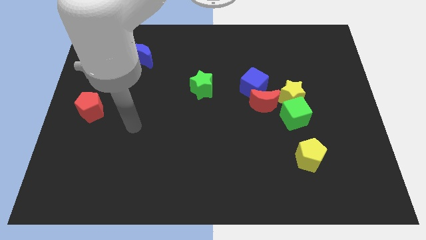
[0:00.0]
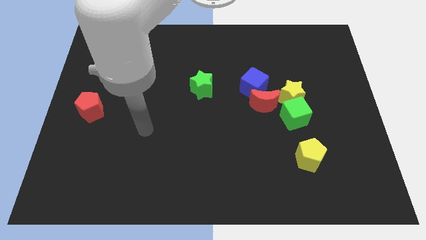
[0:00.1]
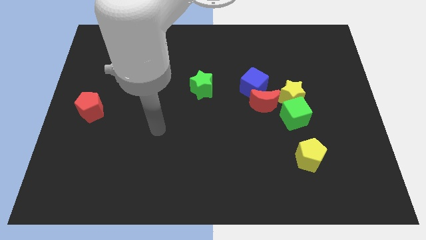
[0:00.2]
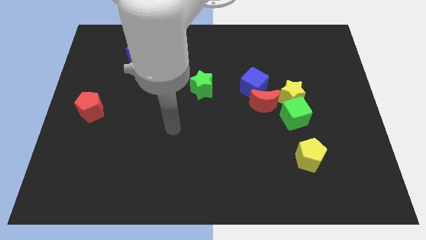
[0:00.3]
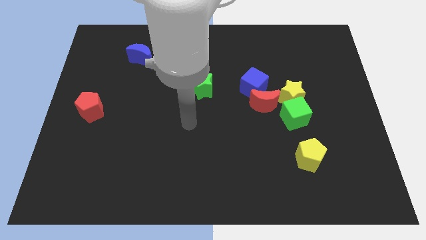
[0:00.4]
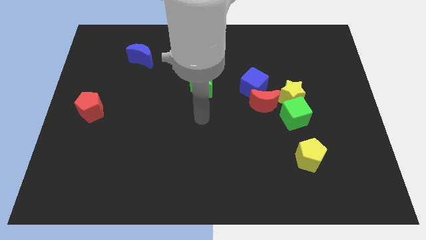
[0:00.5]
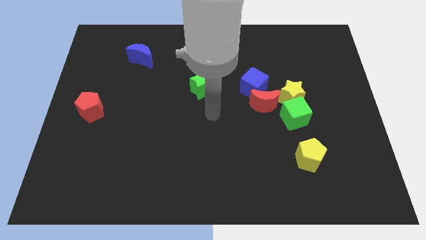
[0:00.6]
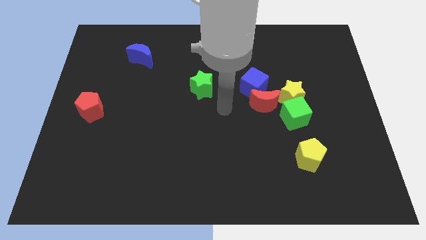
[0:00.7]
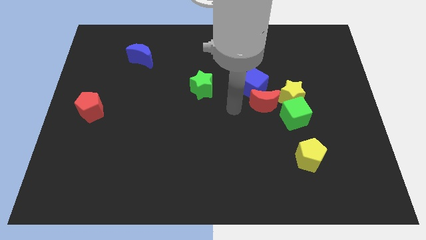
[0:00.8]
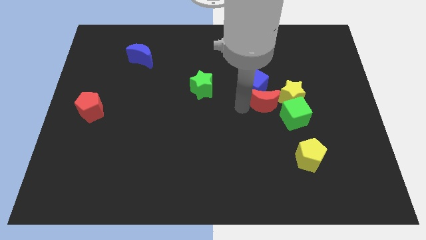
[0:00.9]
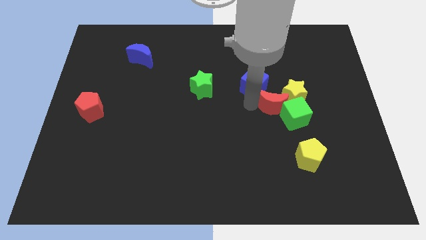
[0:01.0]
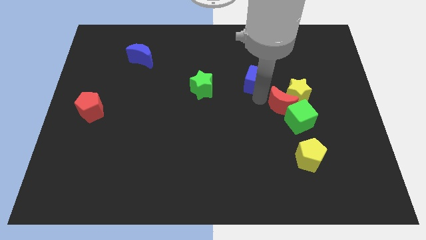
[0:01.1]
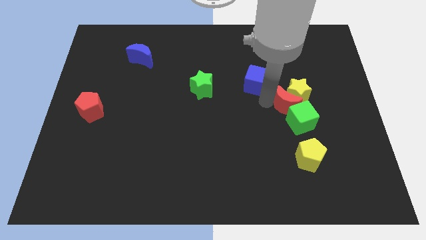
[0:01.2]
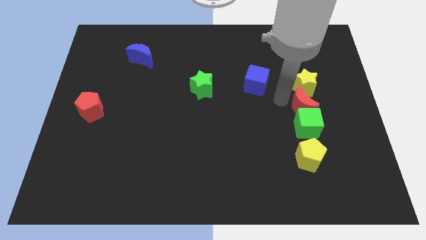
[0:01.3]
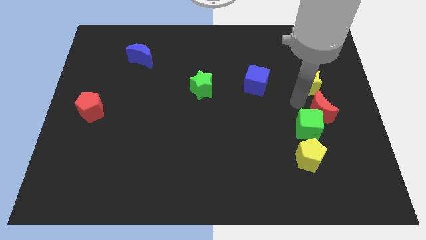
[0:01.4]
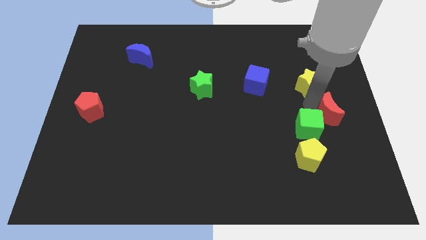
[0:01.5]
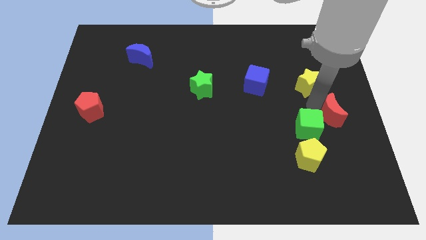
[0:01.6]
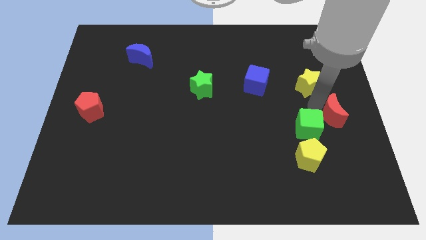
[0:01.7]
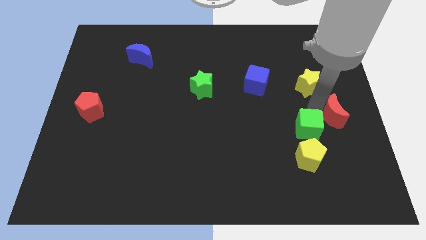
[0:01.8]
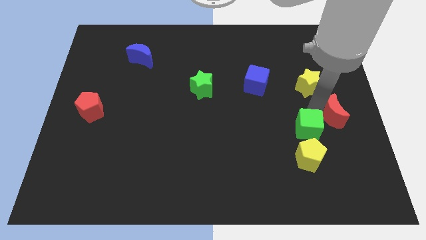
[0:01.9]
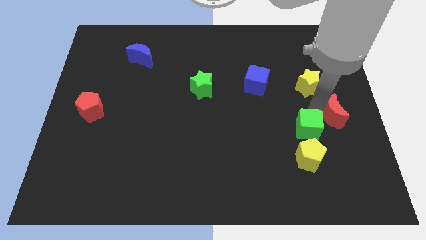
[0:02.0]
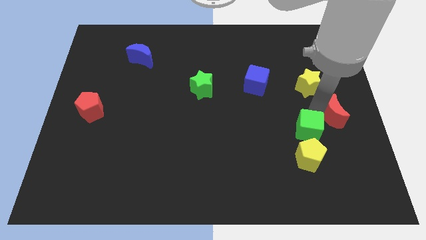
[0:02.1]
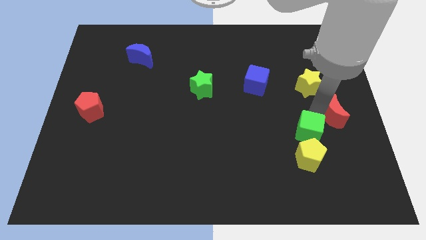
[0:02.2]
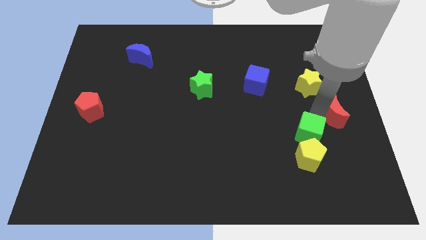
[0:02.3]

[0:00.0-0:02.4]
separate the green cube from the yellow star and red moon

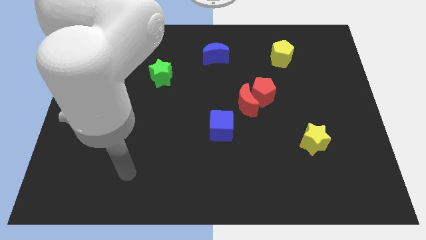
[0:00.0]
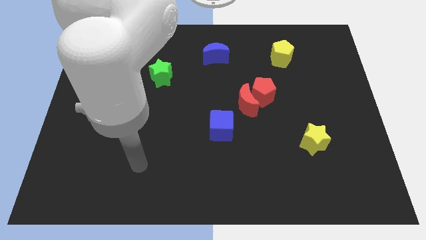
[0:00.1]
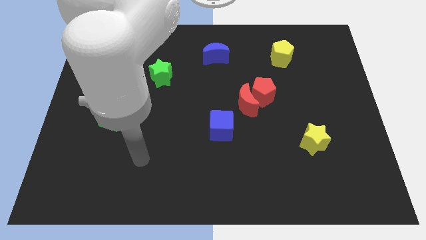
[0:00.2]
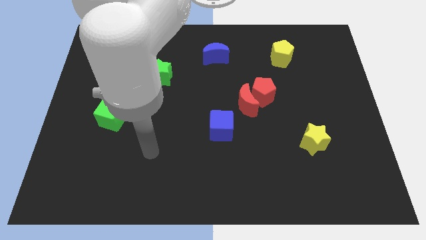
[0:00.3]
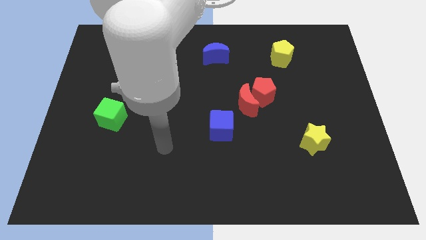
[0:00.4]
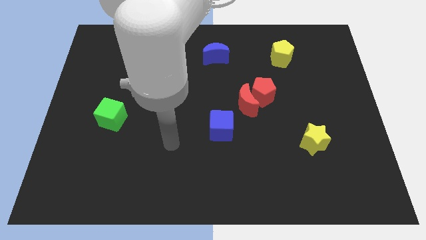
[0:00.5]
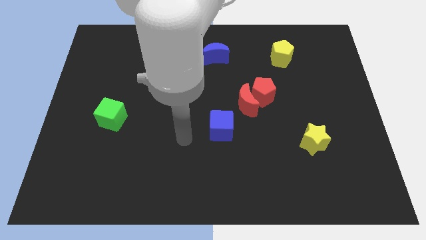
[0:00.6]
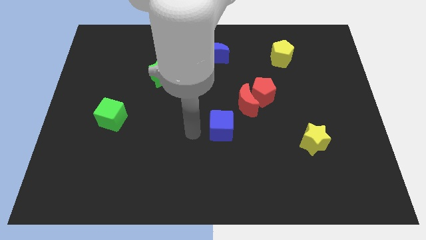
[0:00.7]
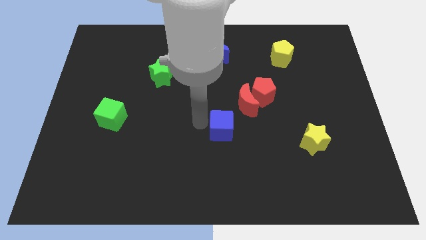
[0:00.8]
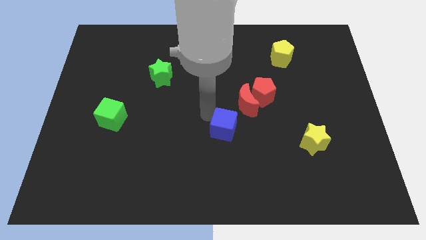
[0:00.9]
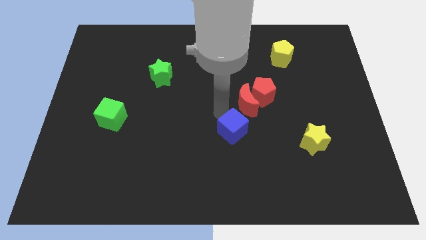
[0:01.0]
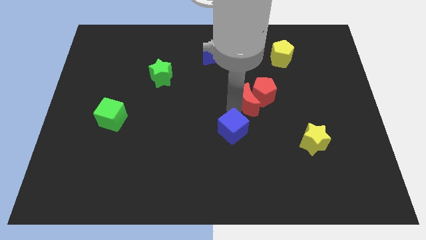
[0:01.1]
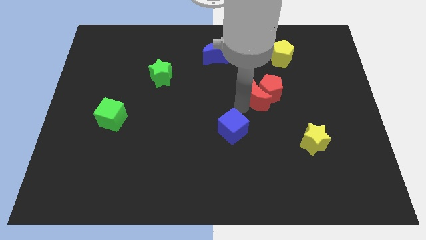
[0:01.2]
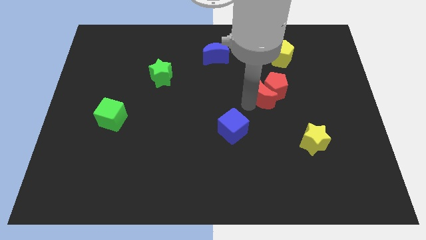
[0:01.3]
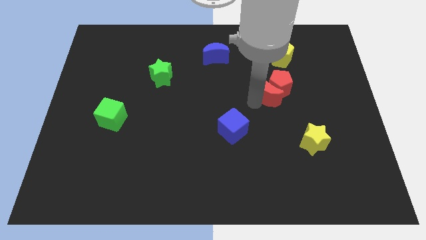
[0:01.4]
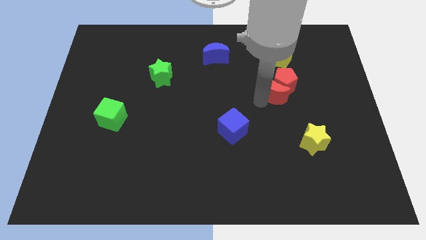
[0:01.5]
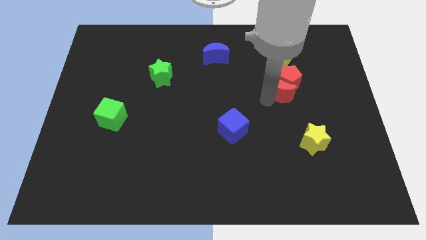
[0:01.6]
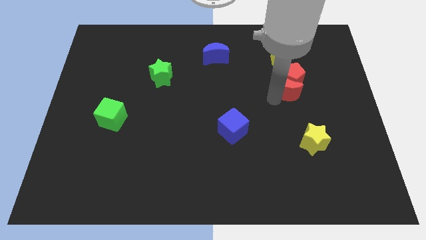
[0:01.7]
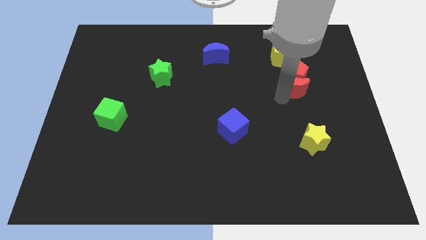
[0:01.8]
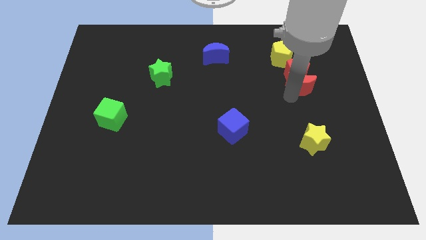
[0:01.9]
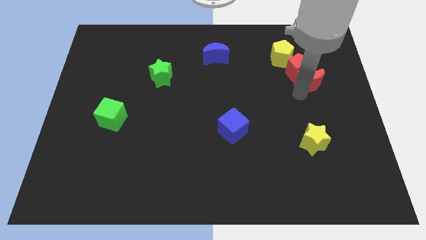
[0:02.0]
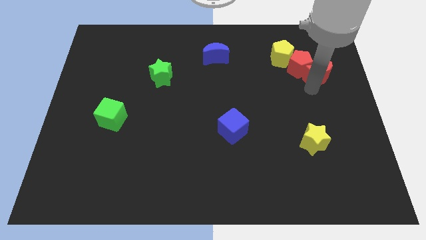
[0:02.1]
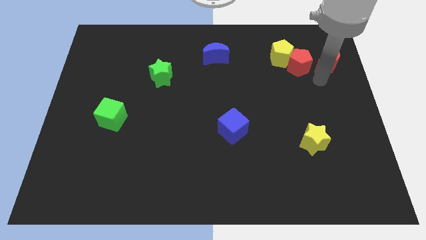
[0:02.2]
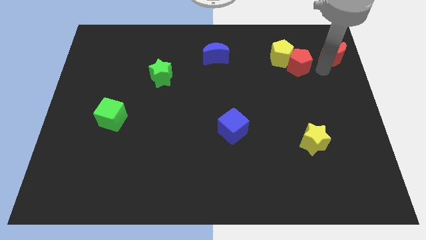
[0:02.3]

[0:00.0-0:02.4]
separate the red pentagon from the red moon

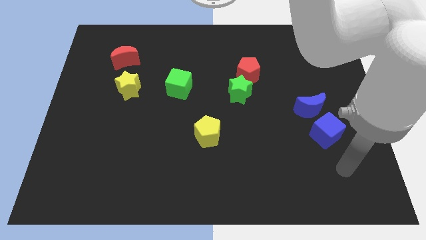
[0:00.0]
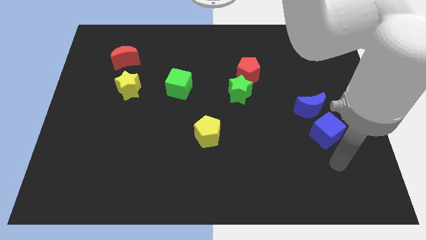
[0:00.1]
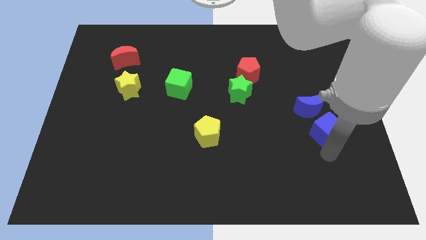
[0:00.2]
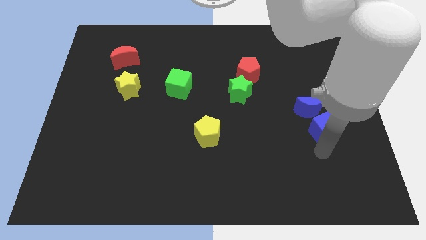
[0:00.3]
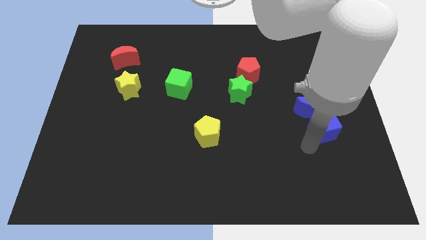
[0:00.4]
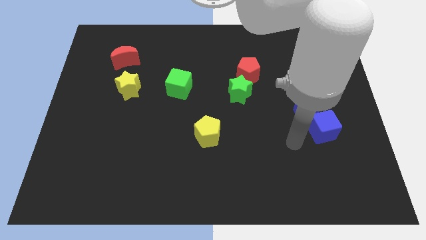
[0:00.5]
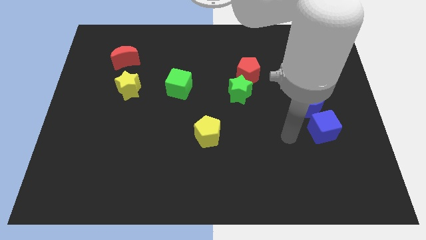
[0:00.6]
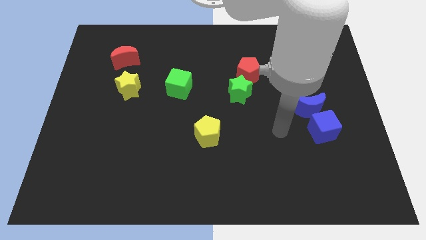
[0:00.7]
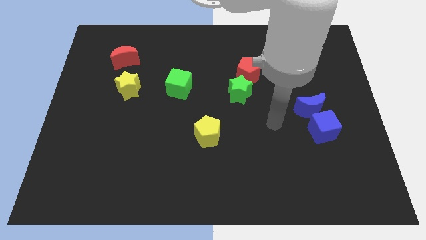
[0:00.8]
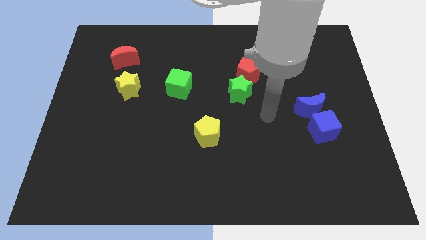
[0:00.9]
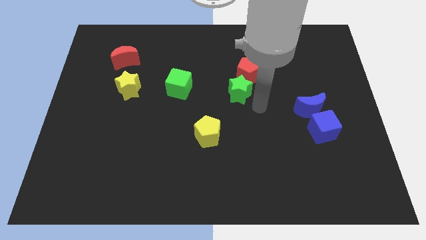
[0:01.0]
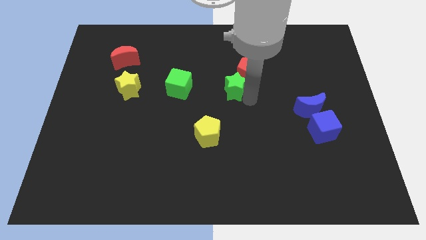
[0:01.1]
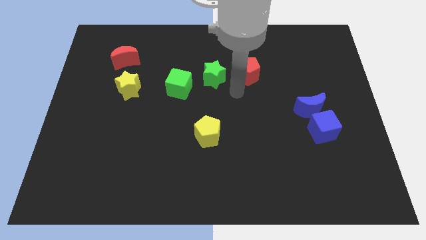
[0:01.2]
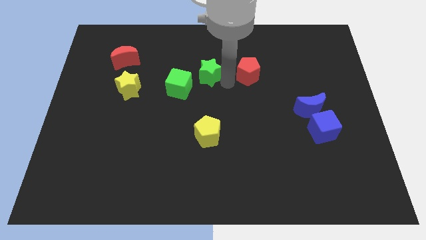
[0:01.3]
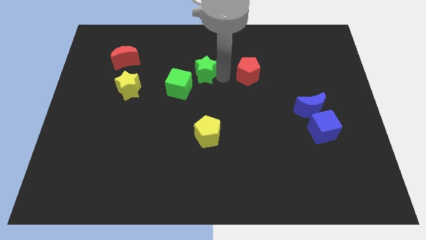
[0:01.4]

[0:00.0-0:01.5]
move the red pentagon away from the green star

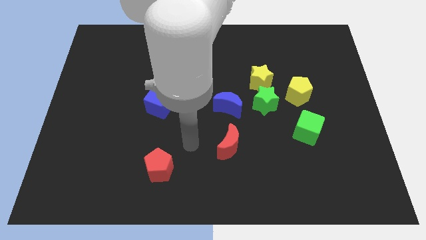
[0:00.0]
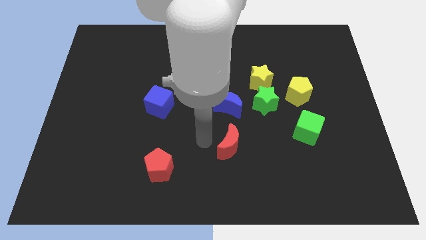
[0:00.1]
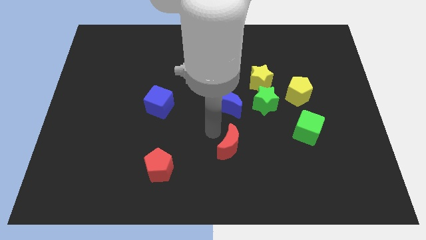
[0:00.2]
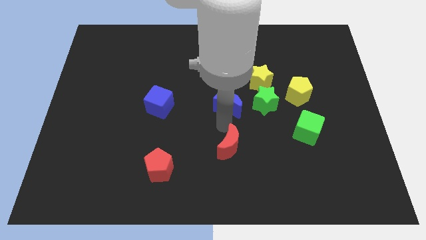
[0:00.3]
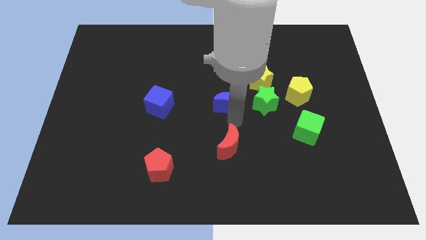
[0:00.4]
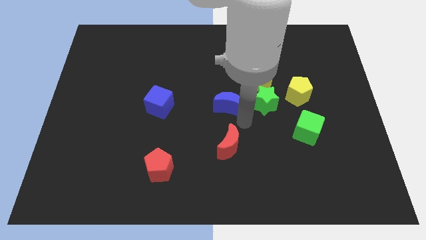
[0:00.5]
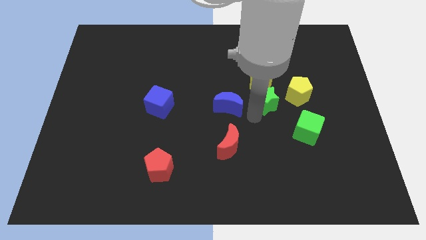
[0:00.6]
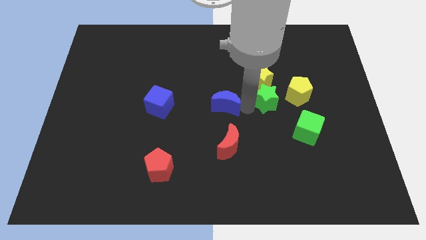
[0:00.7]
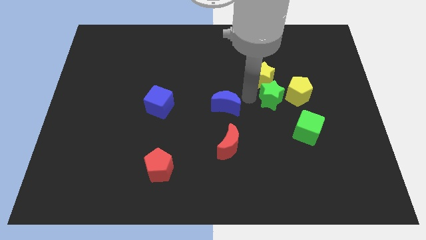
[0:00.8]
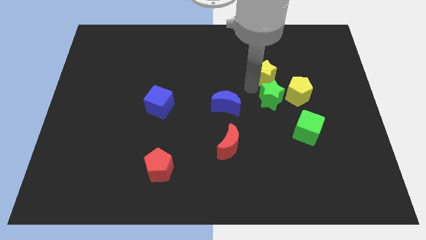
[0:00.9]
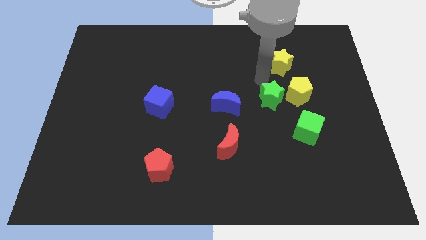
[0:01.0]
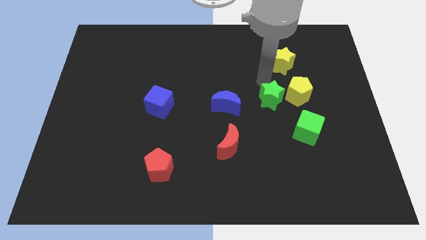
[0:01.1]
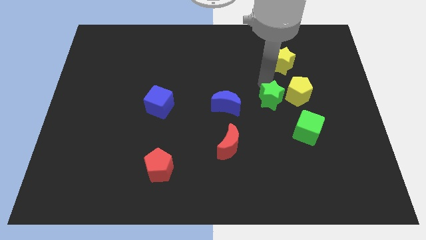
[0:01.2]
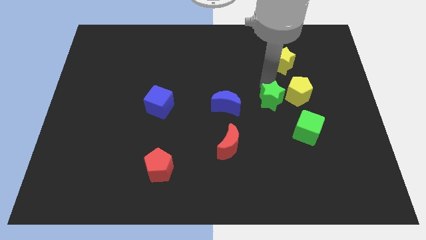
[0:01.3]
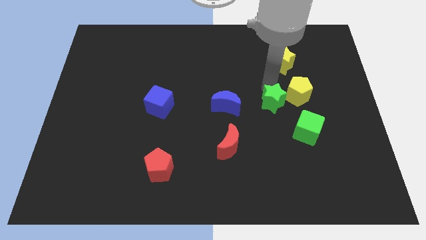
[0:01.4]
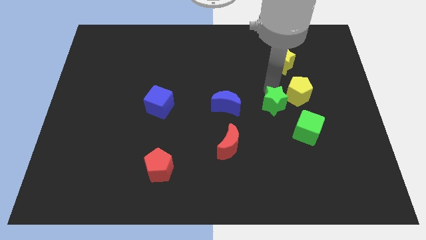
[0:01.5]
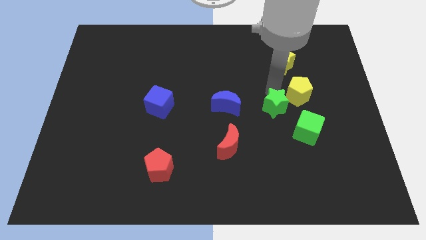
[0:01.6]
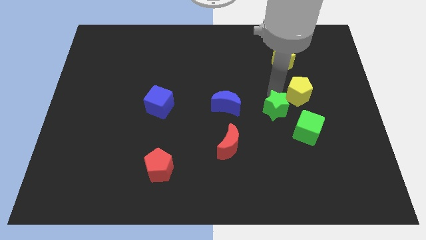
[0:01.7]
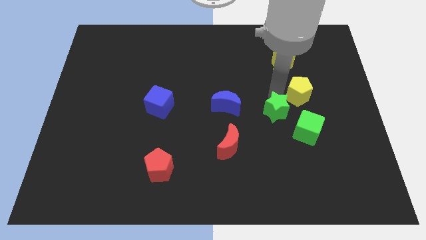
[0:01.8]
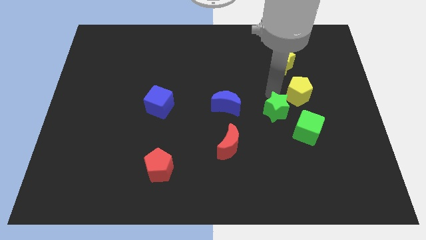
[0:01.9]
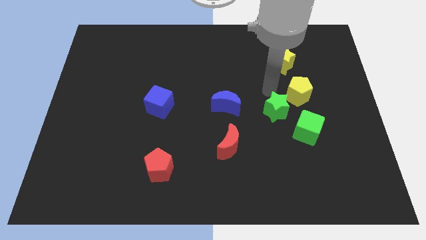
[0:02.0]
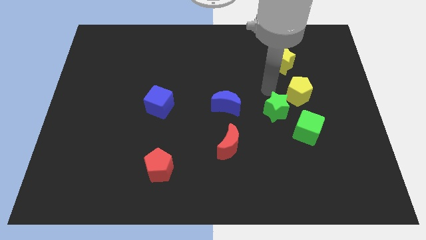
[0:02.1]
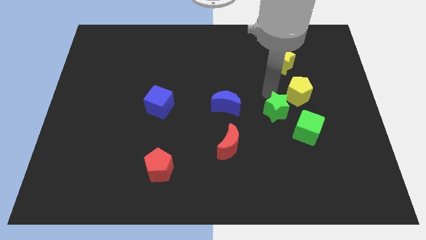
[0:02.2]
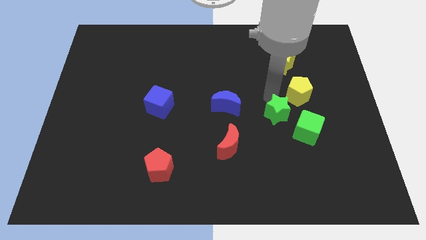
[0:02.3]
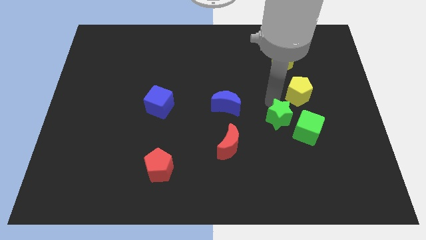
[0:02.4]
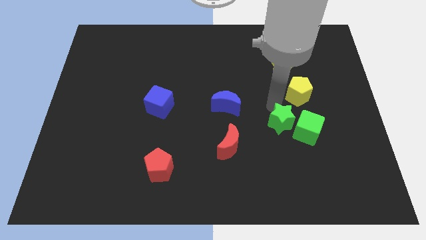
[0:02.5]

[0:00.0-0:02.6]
move the green star away from the yellow star, blue moon, and yellow pentagon

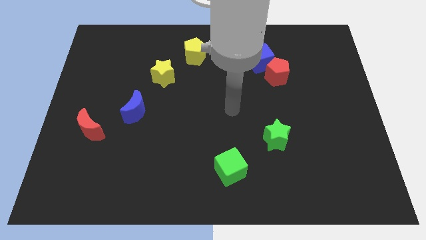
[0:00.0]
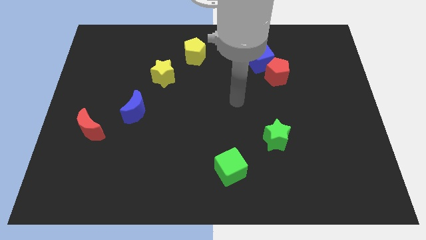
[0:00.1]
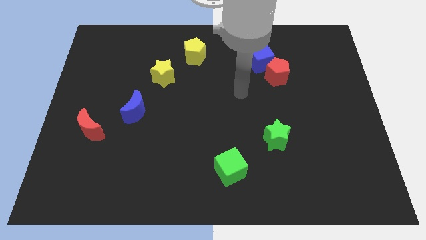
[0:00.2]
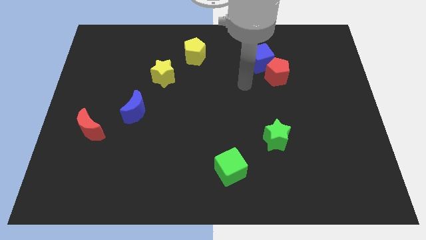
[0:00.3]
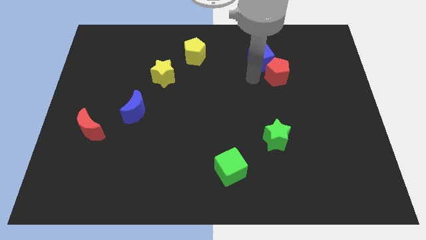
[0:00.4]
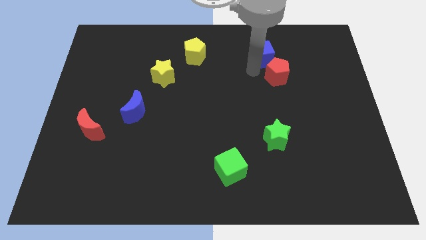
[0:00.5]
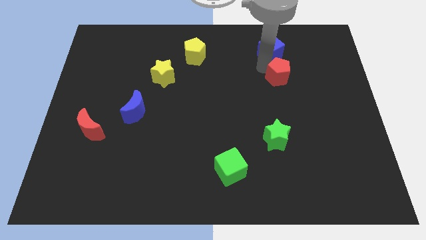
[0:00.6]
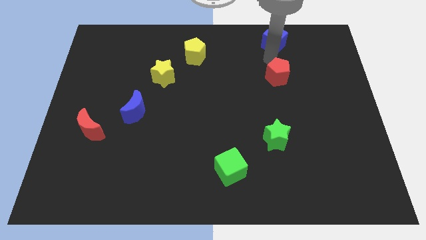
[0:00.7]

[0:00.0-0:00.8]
separate the red pentagon from the blue cube
